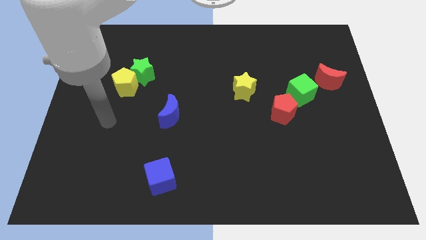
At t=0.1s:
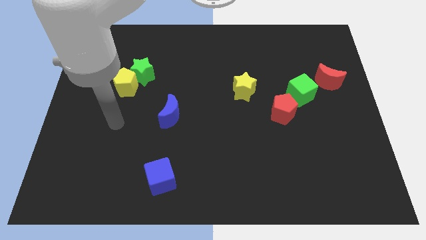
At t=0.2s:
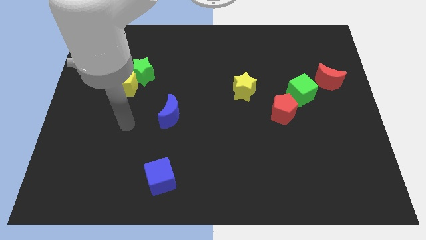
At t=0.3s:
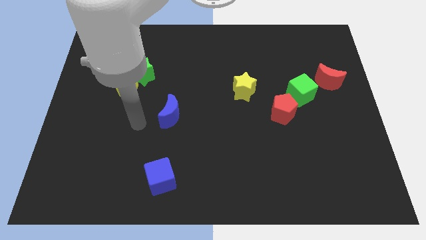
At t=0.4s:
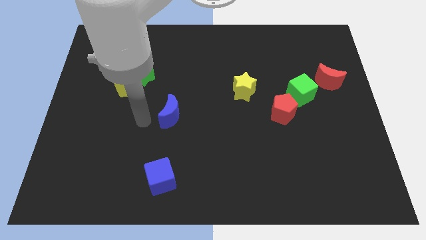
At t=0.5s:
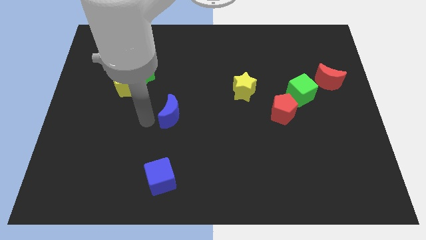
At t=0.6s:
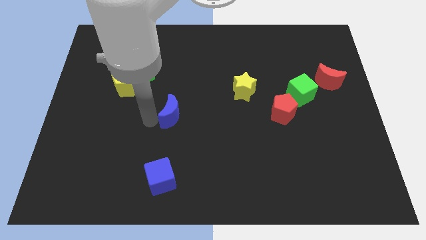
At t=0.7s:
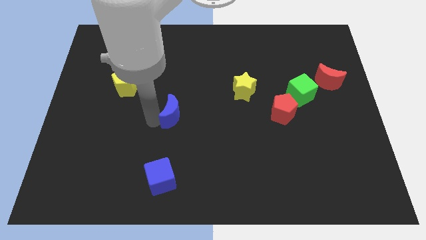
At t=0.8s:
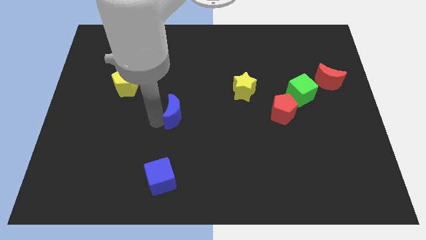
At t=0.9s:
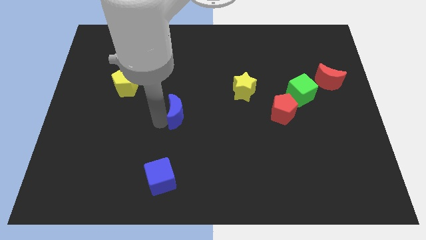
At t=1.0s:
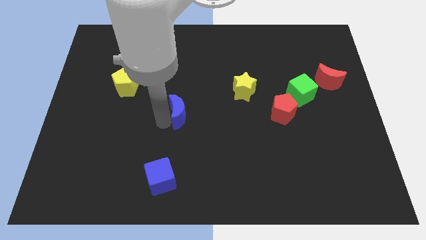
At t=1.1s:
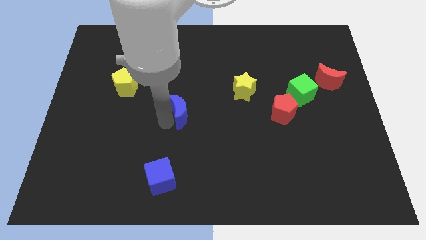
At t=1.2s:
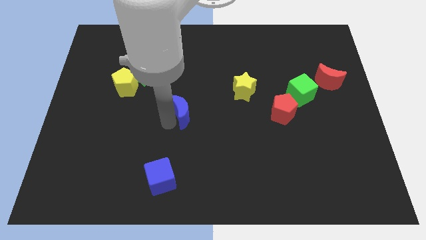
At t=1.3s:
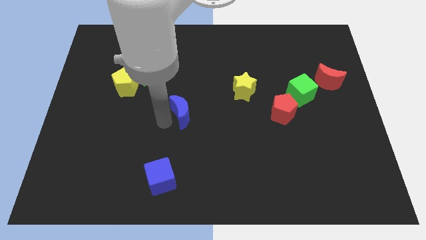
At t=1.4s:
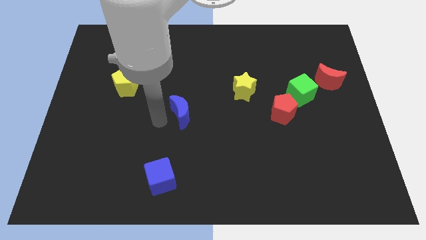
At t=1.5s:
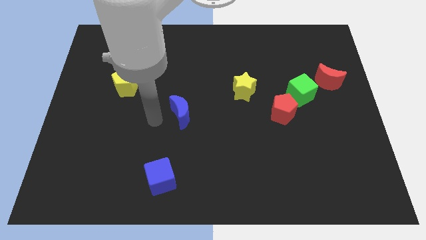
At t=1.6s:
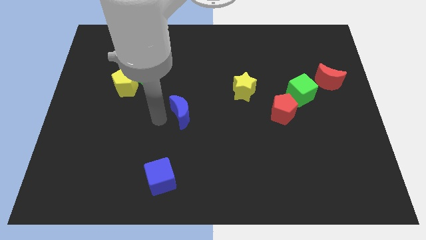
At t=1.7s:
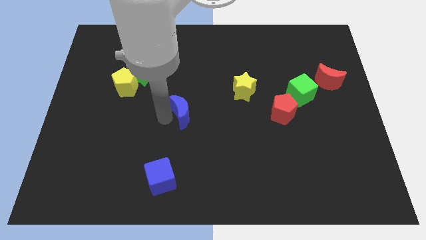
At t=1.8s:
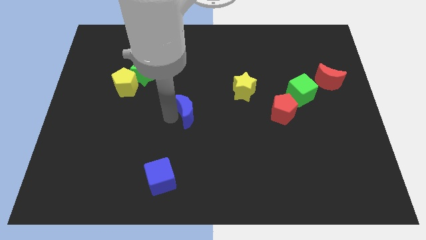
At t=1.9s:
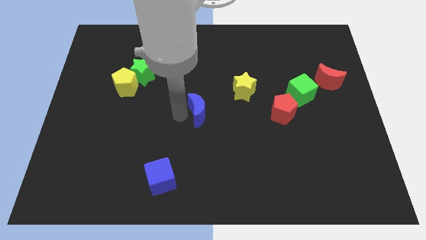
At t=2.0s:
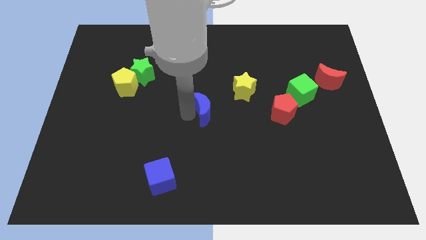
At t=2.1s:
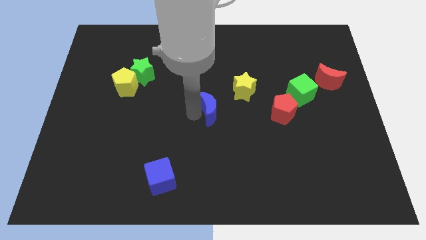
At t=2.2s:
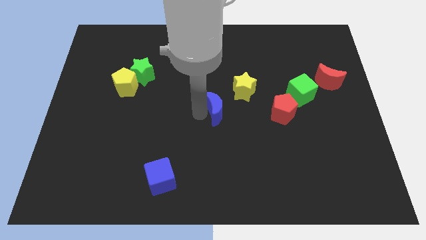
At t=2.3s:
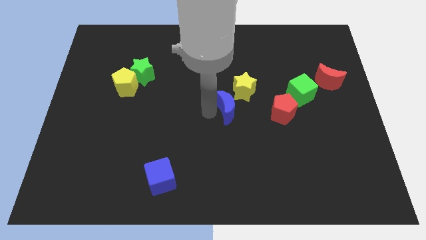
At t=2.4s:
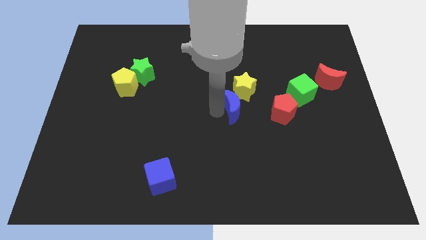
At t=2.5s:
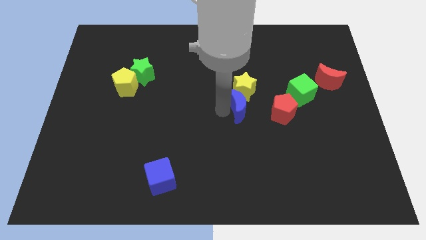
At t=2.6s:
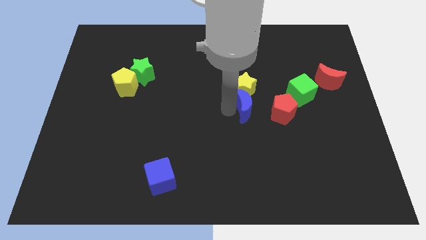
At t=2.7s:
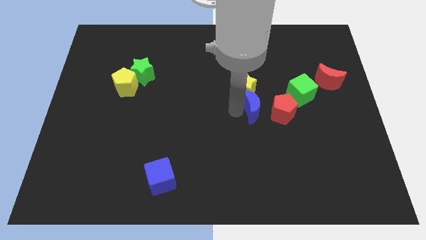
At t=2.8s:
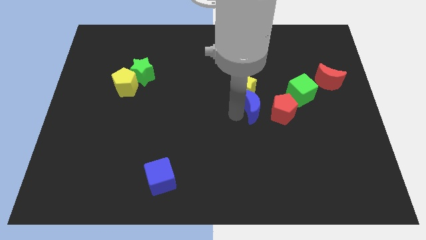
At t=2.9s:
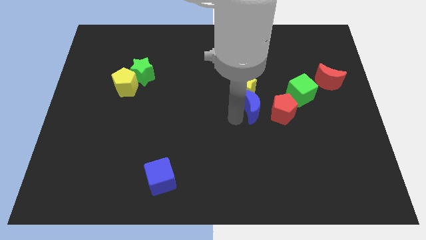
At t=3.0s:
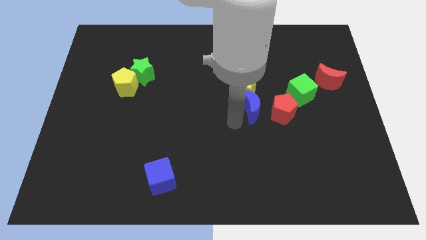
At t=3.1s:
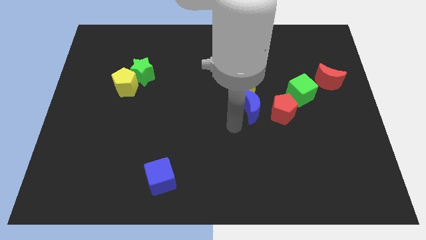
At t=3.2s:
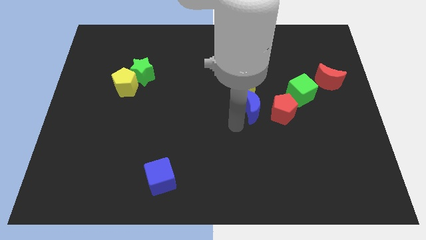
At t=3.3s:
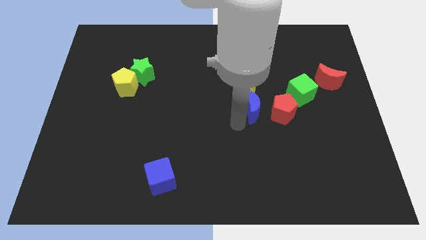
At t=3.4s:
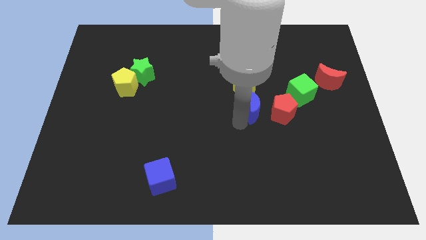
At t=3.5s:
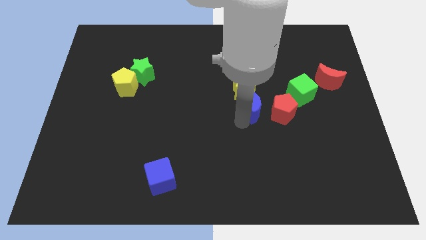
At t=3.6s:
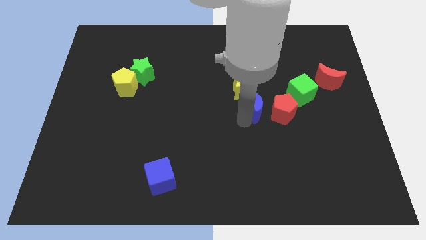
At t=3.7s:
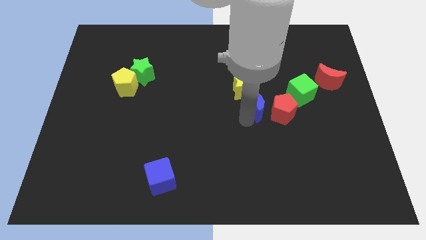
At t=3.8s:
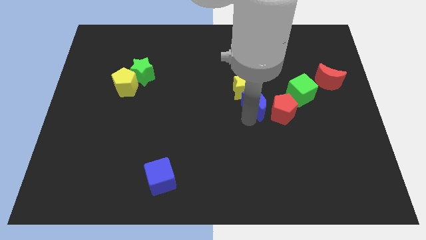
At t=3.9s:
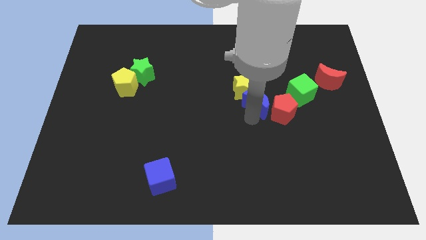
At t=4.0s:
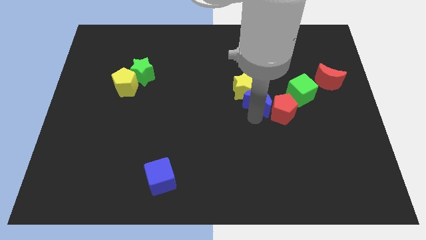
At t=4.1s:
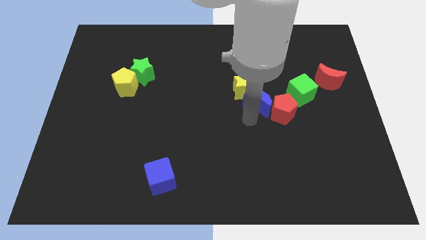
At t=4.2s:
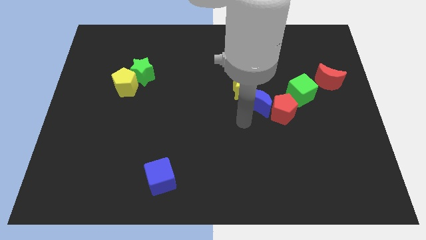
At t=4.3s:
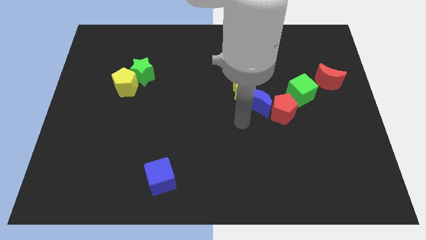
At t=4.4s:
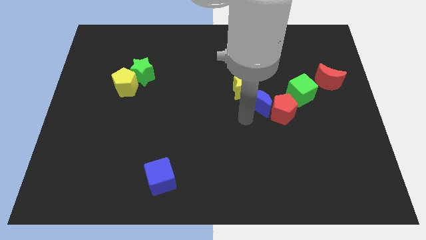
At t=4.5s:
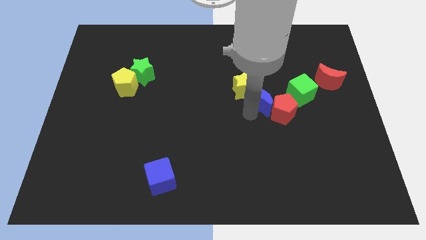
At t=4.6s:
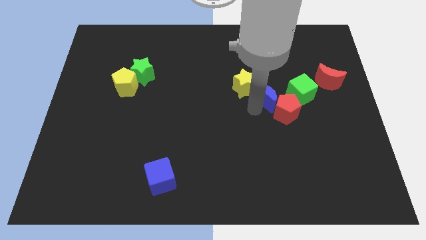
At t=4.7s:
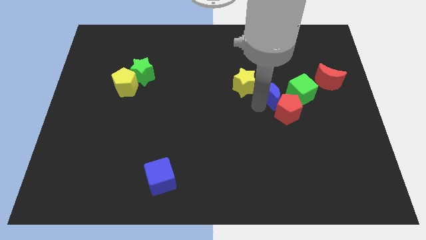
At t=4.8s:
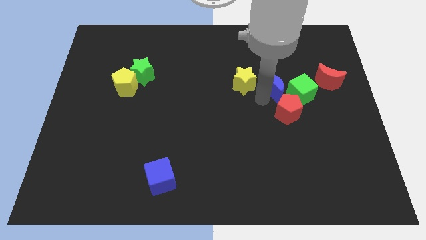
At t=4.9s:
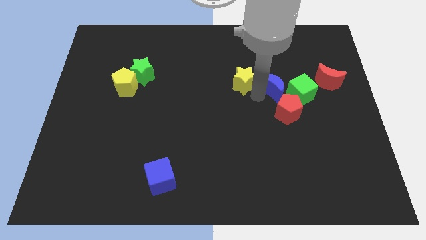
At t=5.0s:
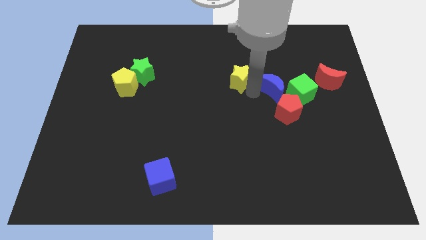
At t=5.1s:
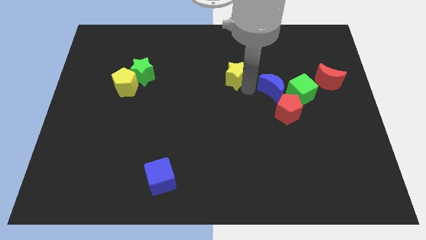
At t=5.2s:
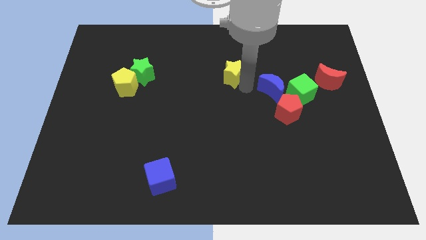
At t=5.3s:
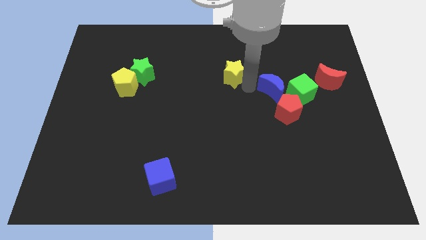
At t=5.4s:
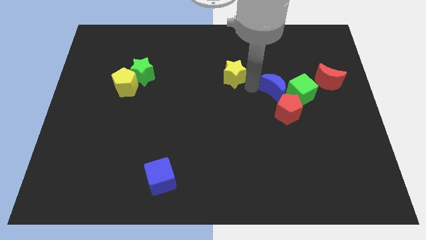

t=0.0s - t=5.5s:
put the blue moon to the green cube

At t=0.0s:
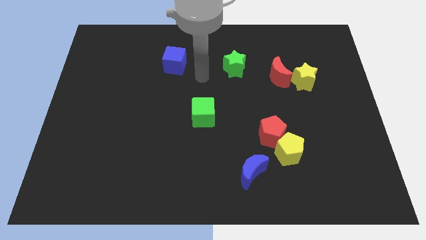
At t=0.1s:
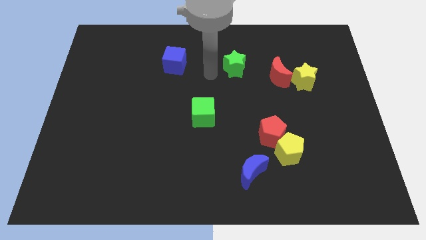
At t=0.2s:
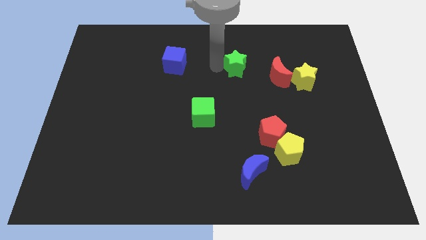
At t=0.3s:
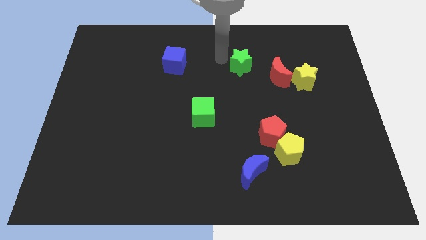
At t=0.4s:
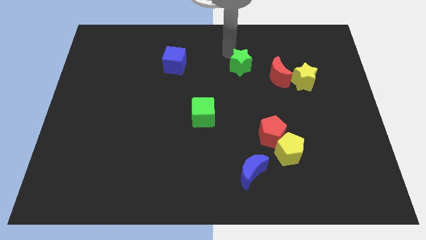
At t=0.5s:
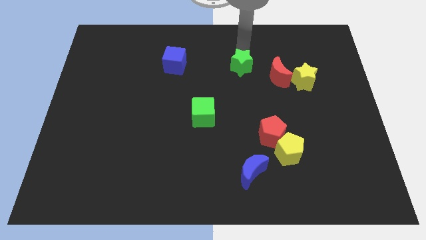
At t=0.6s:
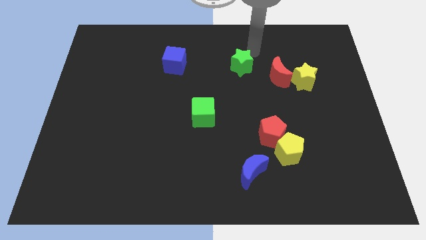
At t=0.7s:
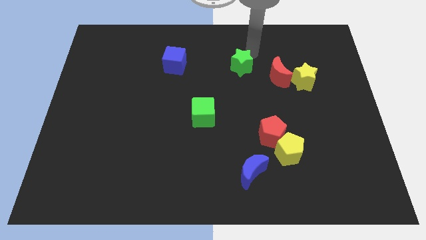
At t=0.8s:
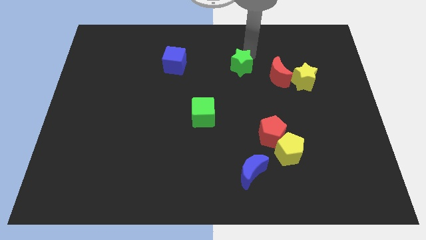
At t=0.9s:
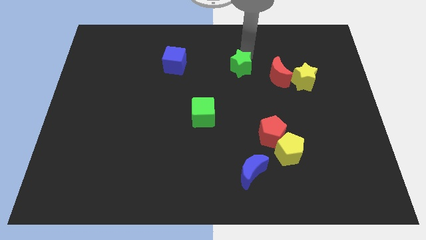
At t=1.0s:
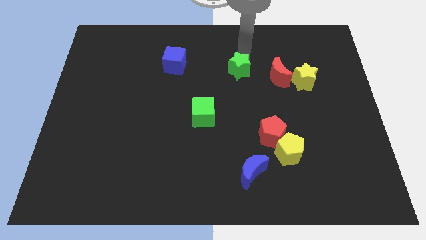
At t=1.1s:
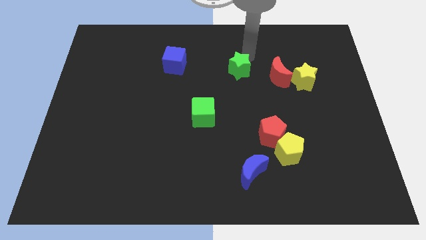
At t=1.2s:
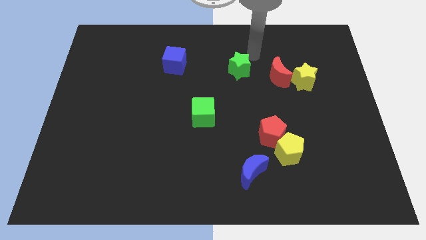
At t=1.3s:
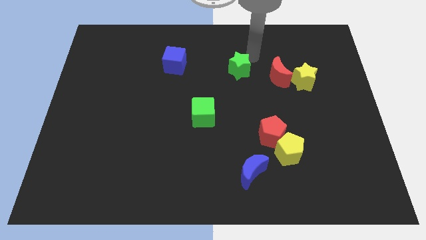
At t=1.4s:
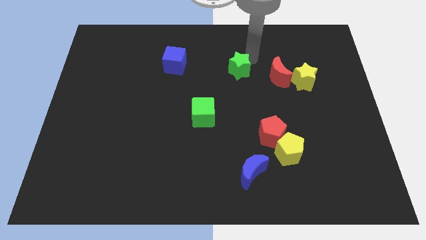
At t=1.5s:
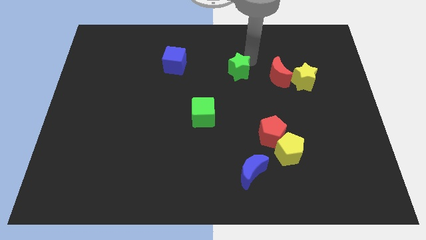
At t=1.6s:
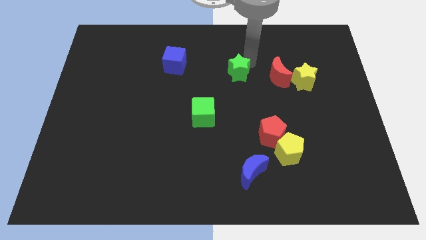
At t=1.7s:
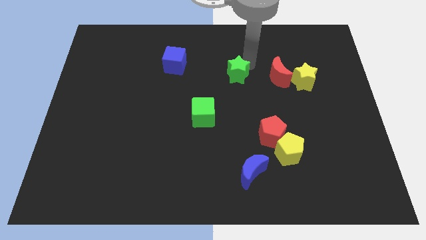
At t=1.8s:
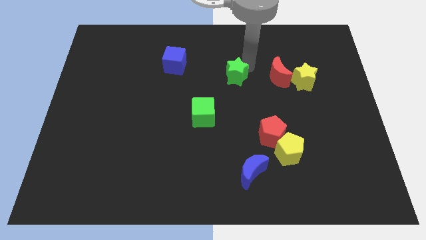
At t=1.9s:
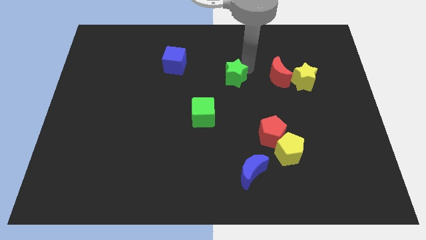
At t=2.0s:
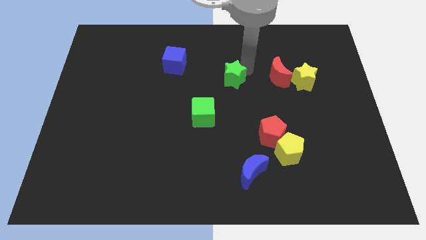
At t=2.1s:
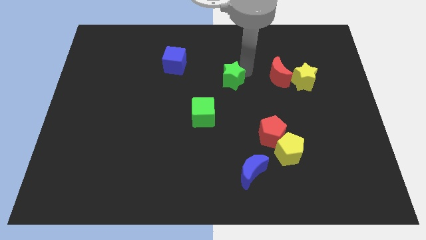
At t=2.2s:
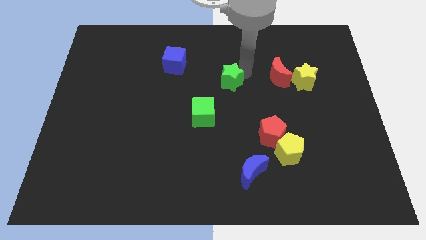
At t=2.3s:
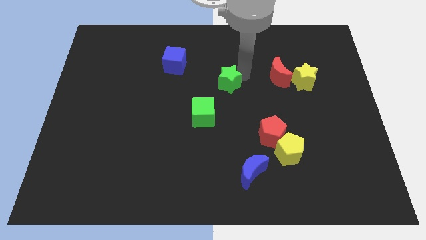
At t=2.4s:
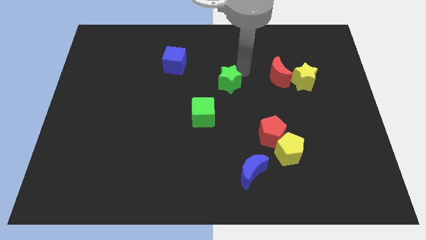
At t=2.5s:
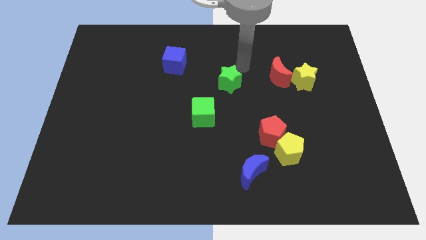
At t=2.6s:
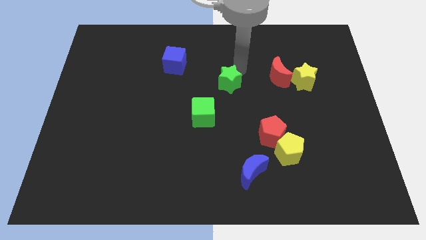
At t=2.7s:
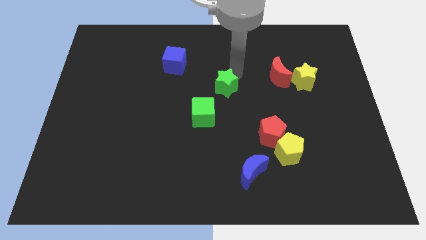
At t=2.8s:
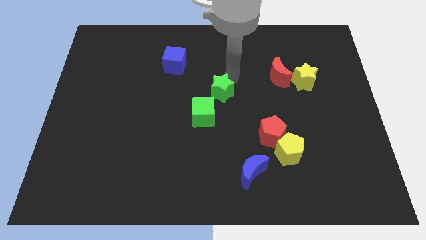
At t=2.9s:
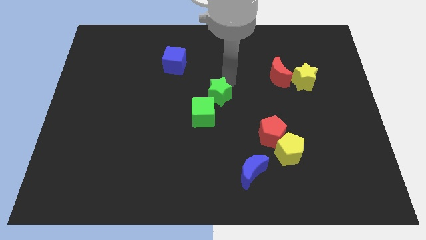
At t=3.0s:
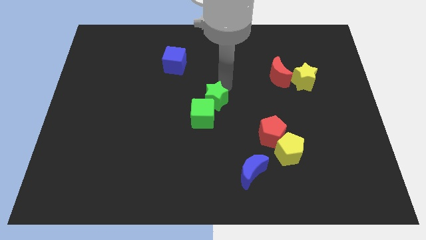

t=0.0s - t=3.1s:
push the green star next to the green cube
